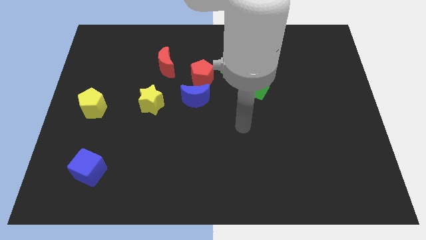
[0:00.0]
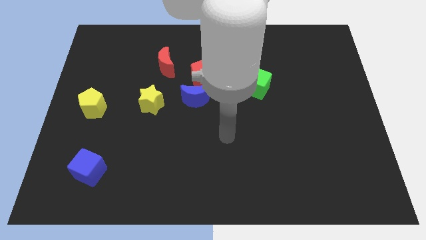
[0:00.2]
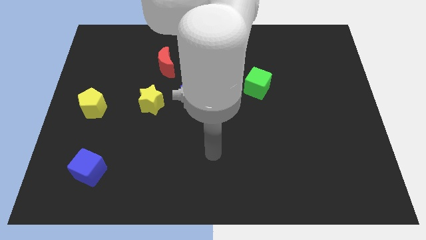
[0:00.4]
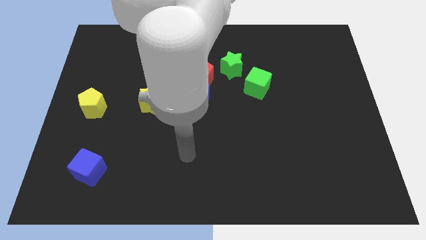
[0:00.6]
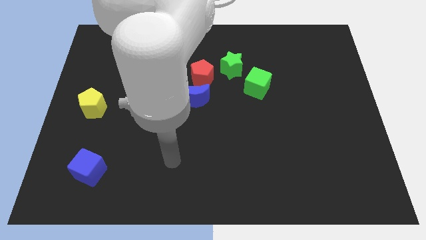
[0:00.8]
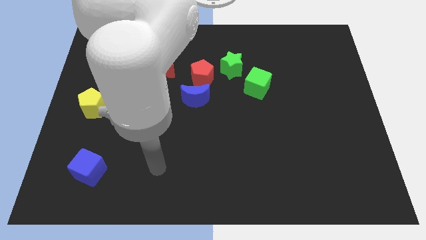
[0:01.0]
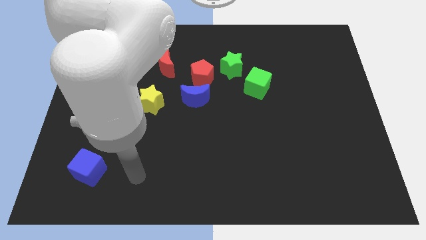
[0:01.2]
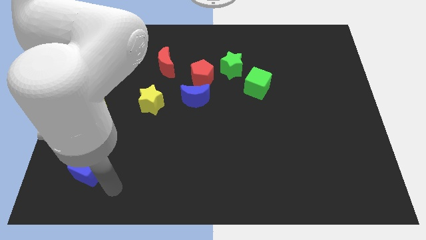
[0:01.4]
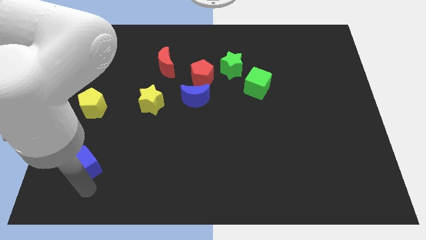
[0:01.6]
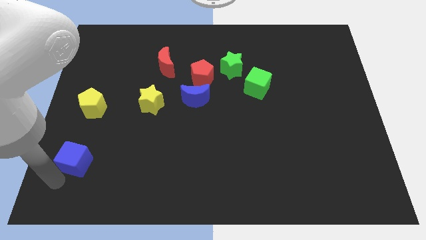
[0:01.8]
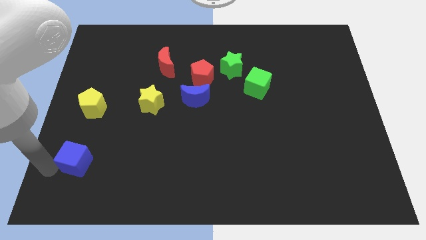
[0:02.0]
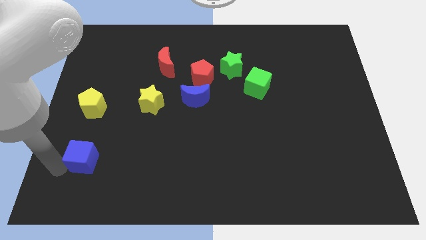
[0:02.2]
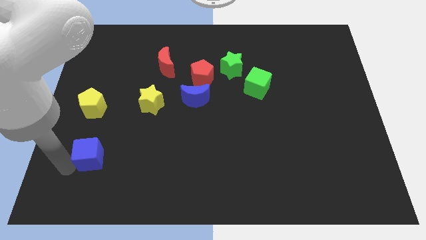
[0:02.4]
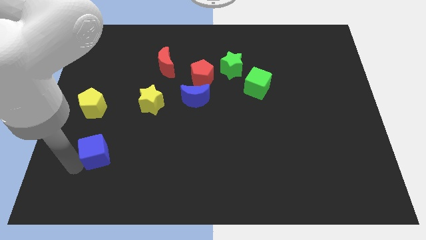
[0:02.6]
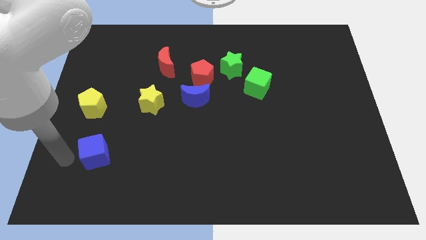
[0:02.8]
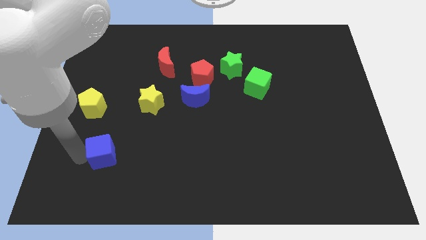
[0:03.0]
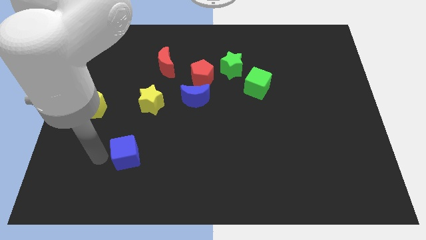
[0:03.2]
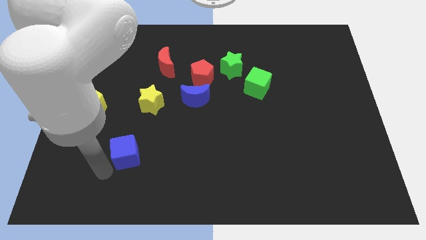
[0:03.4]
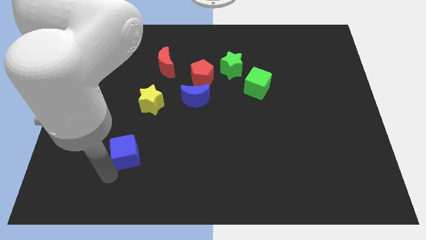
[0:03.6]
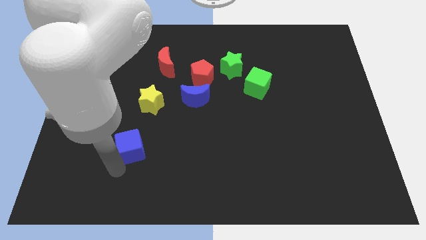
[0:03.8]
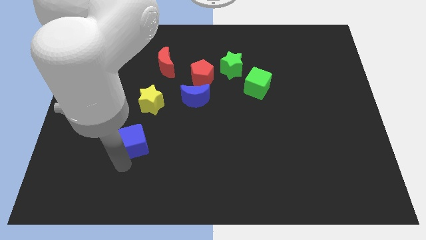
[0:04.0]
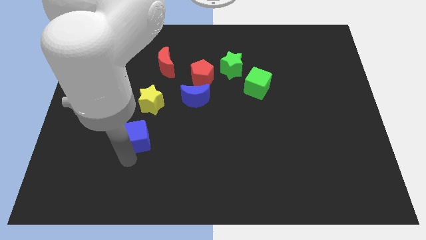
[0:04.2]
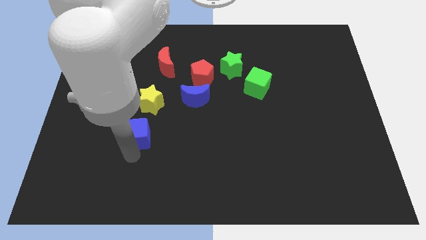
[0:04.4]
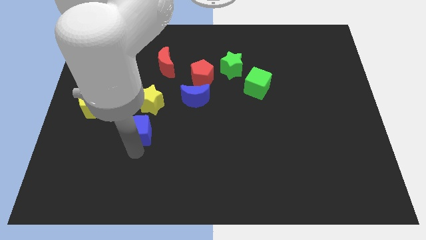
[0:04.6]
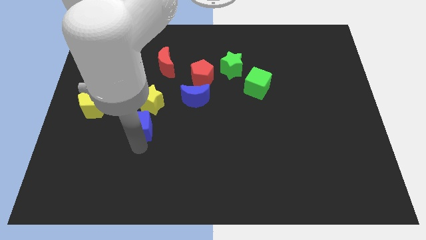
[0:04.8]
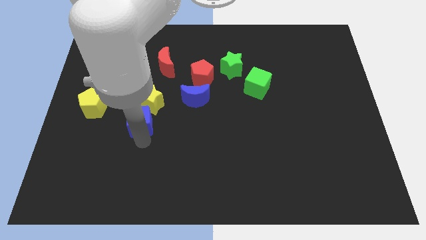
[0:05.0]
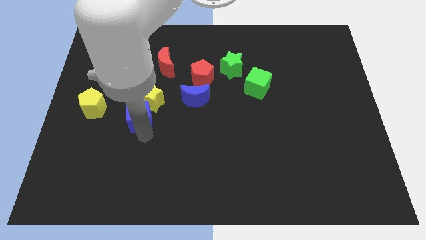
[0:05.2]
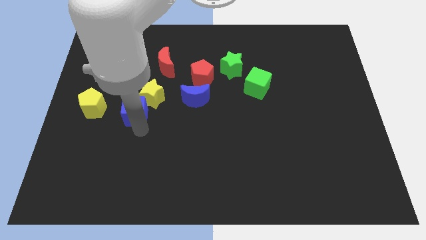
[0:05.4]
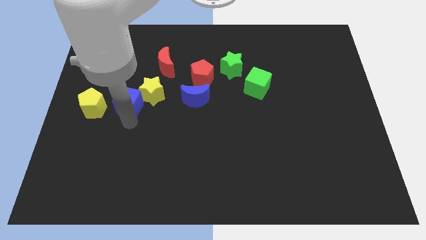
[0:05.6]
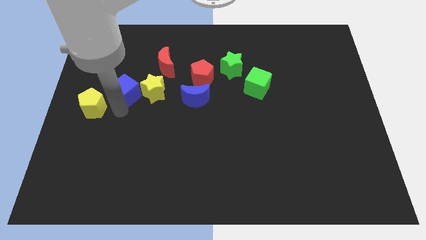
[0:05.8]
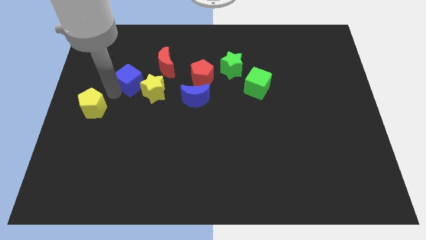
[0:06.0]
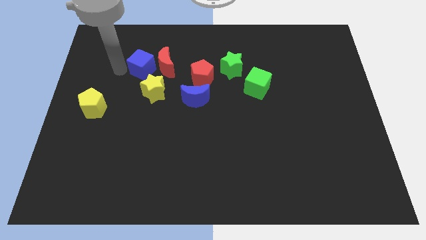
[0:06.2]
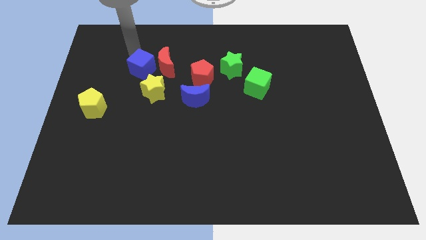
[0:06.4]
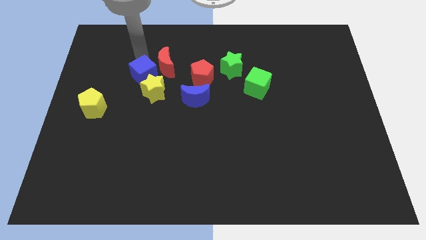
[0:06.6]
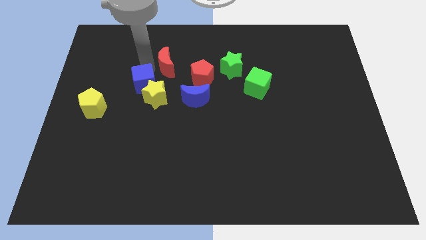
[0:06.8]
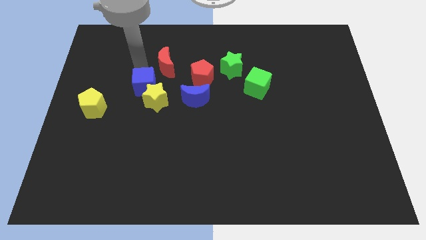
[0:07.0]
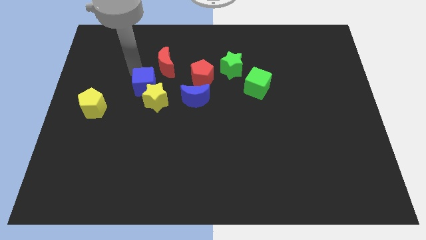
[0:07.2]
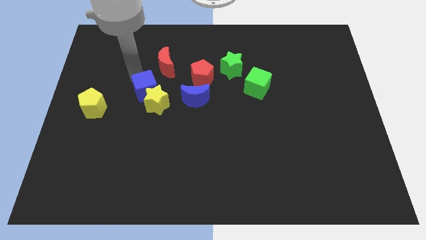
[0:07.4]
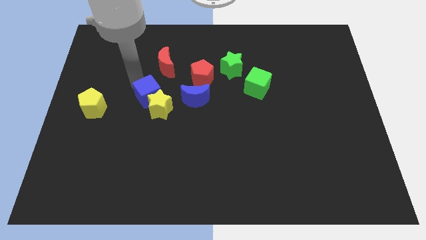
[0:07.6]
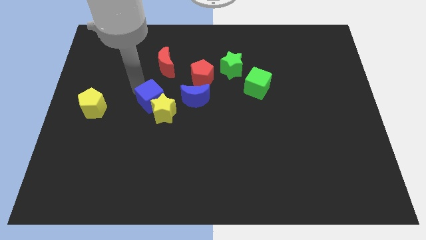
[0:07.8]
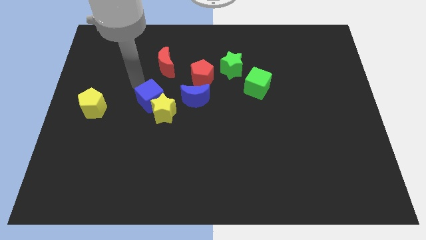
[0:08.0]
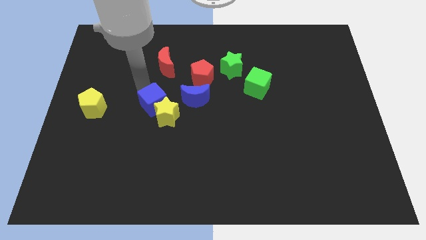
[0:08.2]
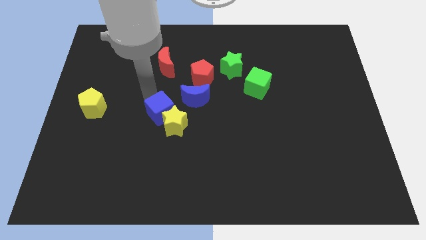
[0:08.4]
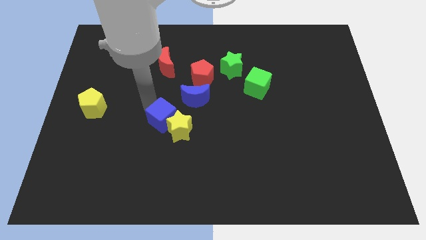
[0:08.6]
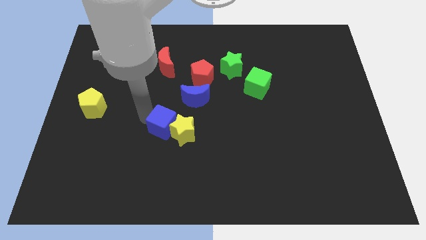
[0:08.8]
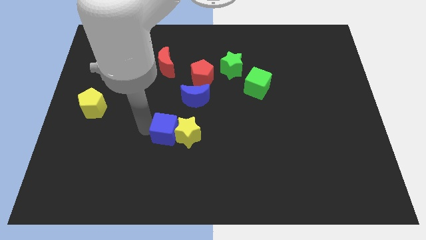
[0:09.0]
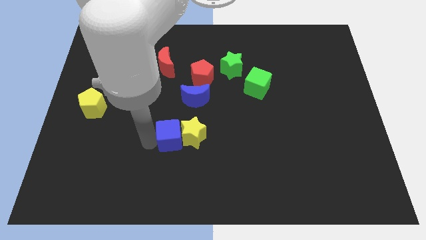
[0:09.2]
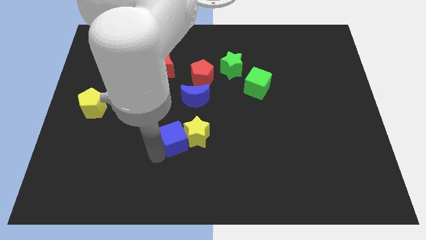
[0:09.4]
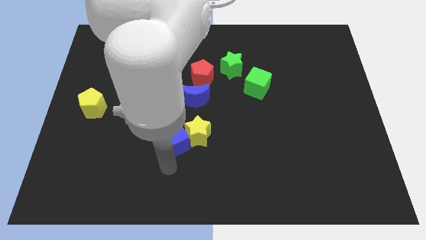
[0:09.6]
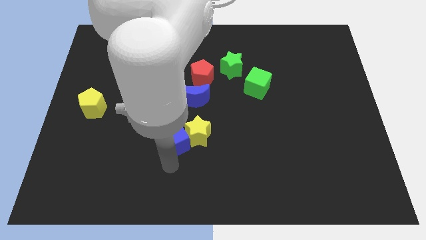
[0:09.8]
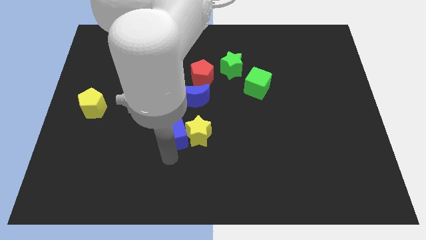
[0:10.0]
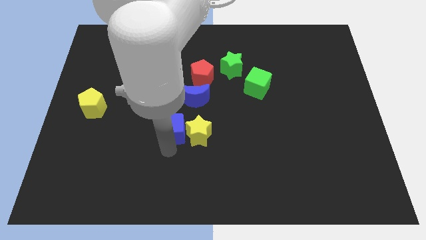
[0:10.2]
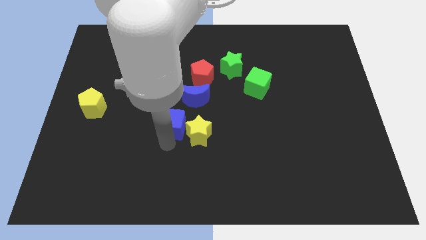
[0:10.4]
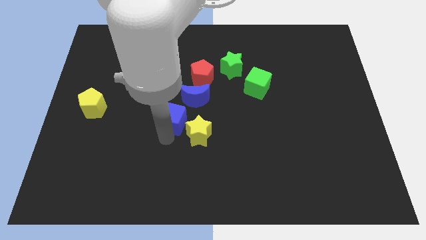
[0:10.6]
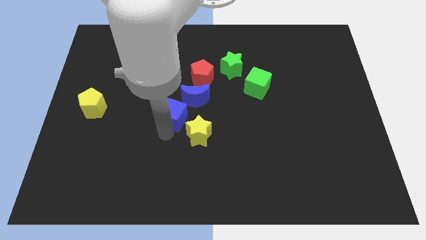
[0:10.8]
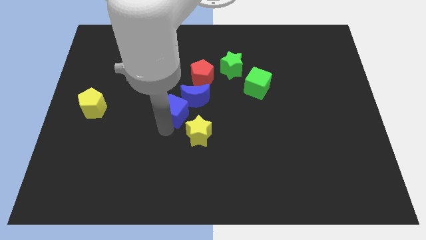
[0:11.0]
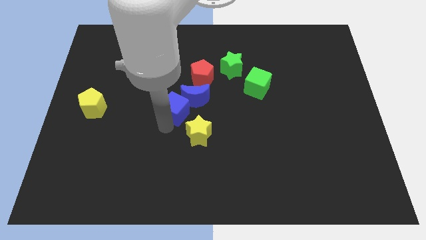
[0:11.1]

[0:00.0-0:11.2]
move the blue cube towards the blue moon

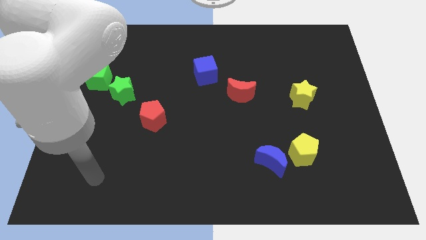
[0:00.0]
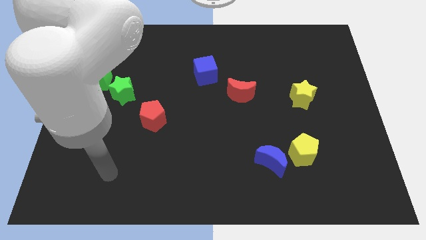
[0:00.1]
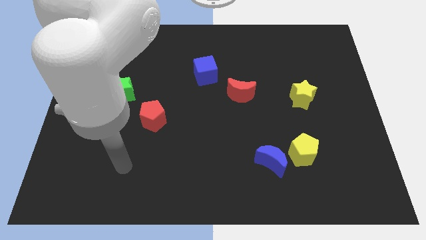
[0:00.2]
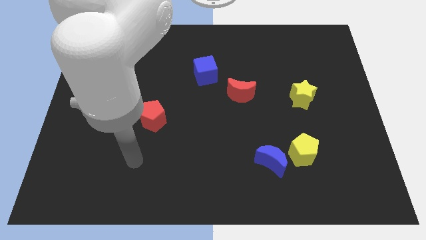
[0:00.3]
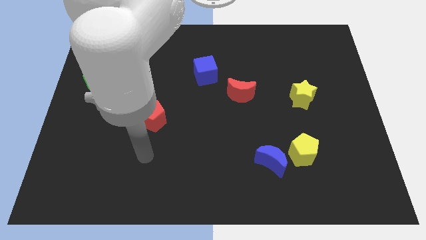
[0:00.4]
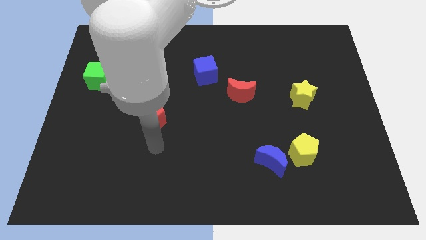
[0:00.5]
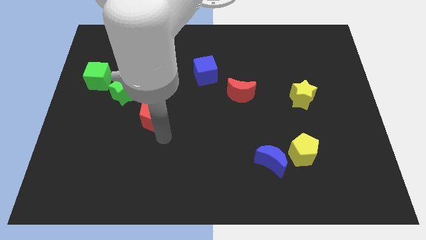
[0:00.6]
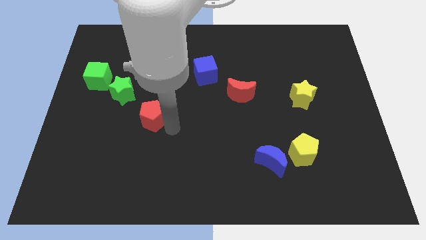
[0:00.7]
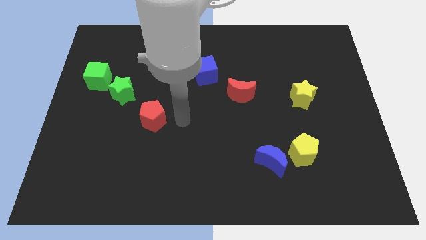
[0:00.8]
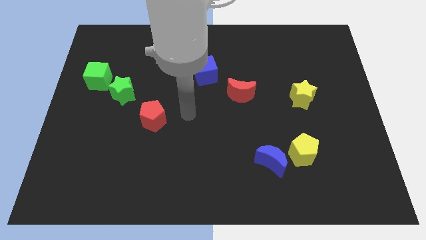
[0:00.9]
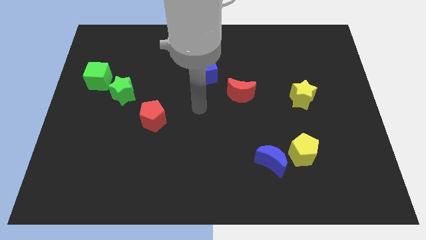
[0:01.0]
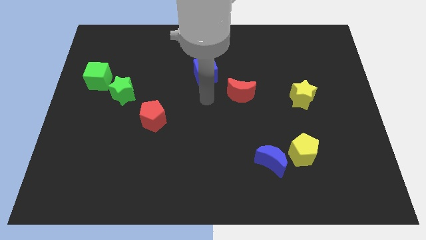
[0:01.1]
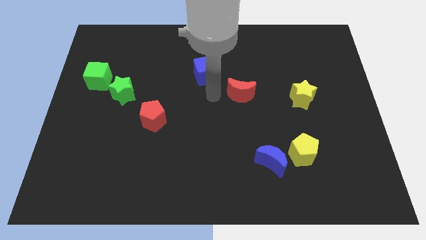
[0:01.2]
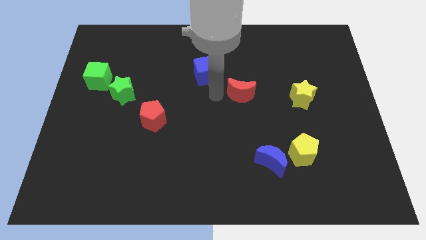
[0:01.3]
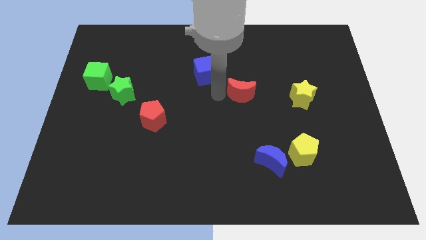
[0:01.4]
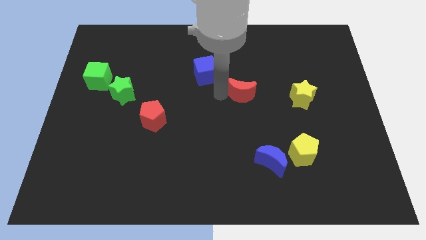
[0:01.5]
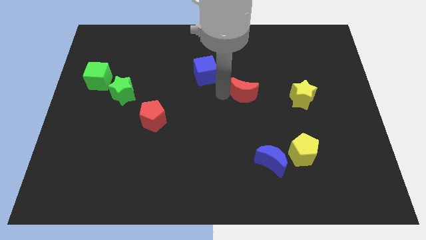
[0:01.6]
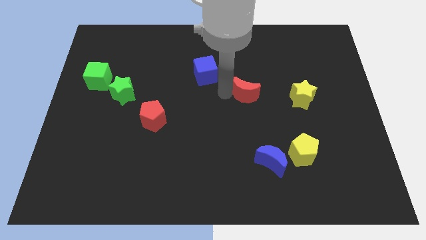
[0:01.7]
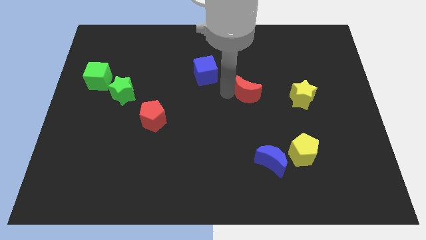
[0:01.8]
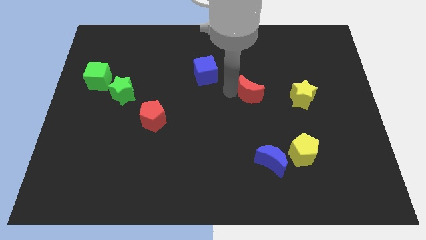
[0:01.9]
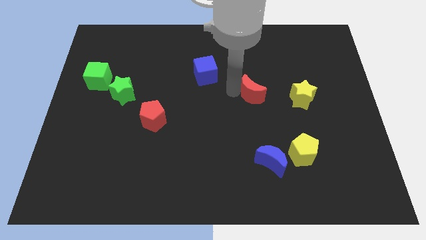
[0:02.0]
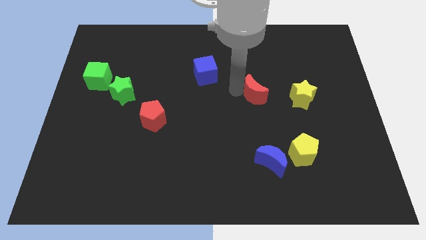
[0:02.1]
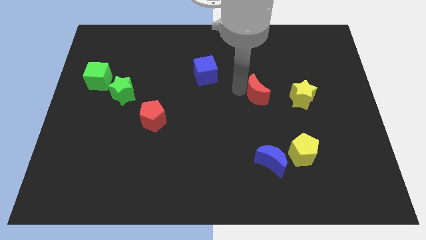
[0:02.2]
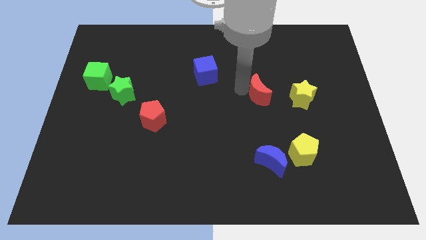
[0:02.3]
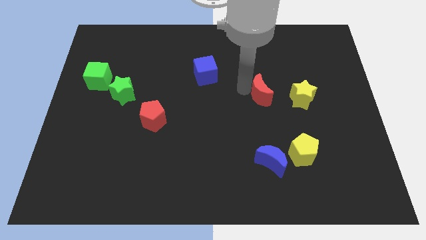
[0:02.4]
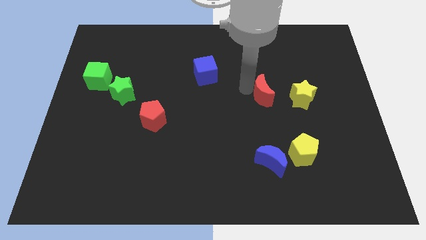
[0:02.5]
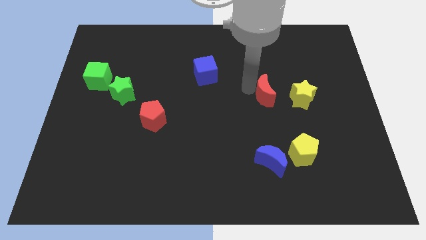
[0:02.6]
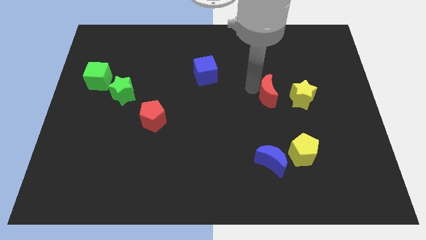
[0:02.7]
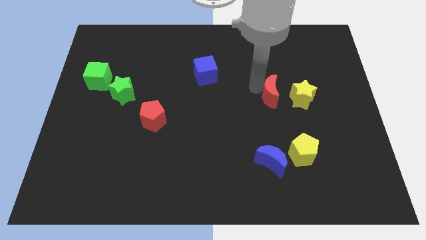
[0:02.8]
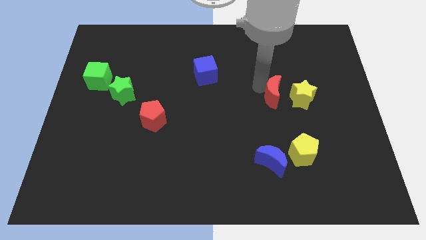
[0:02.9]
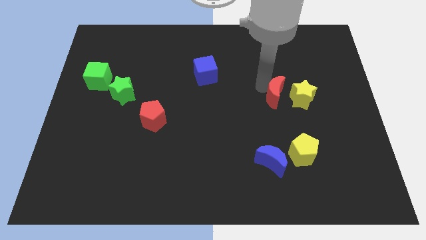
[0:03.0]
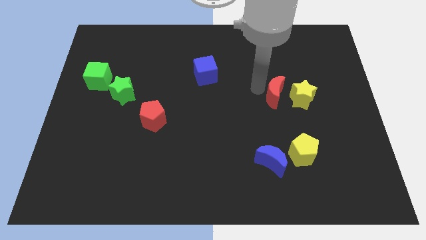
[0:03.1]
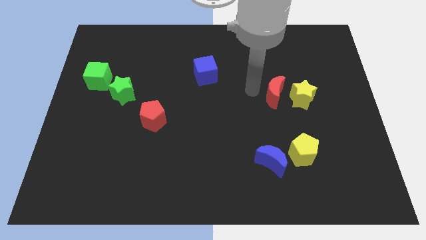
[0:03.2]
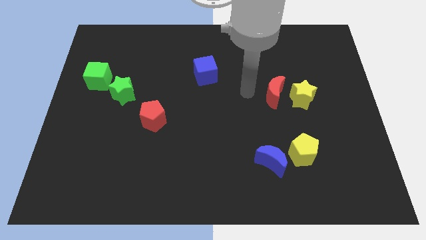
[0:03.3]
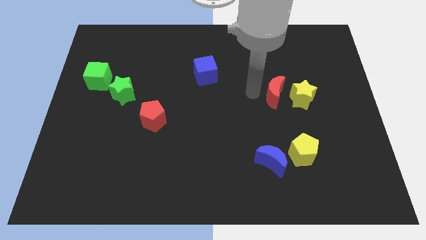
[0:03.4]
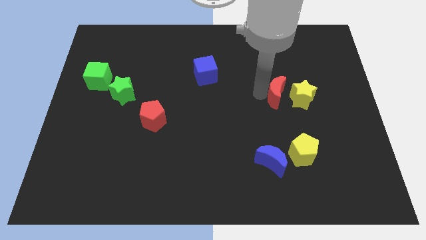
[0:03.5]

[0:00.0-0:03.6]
move the red moon towards the yellow star
